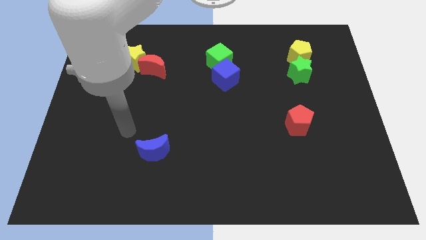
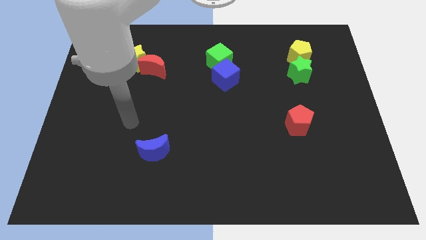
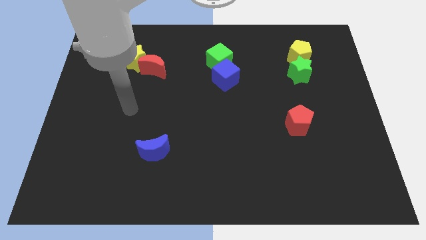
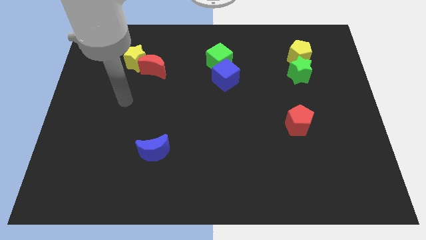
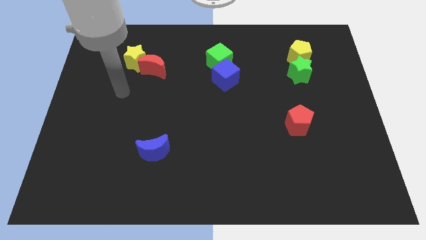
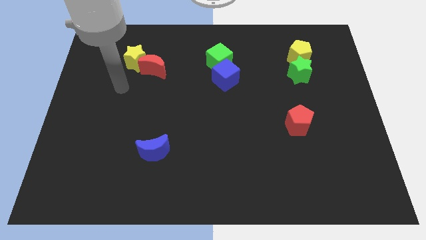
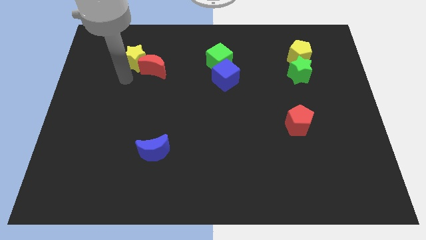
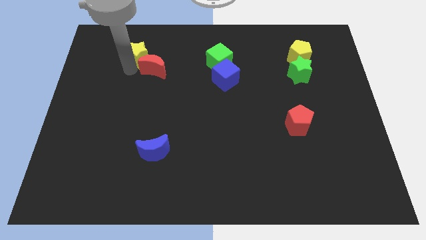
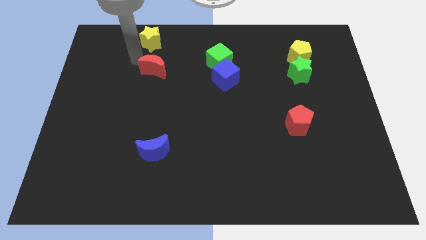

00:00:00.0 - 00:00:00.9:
separate the red moon from the yellow star

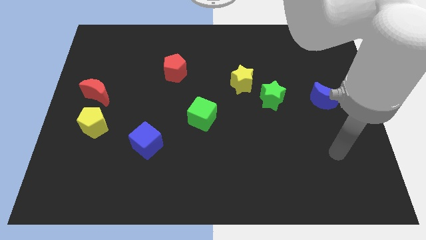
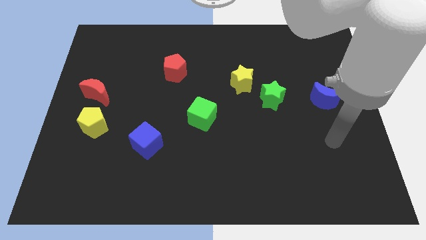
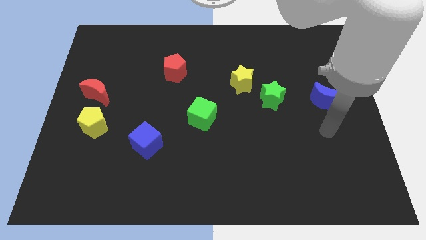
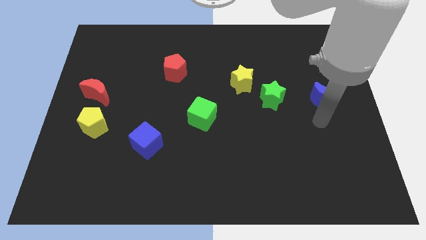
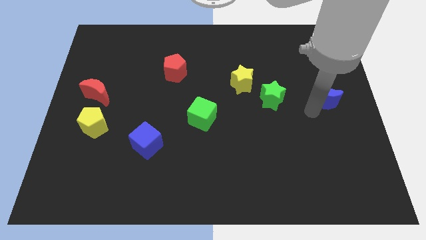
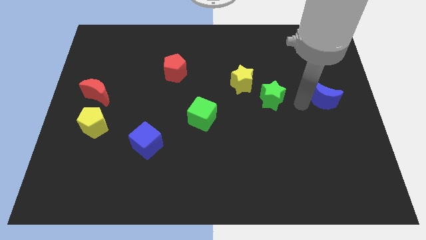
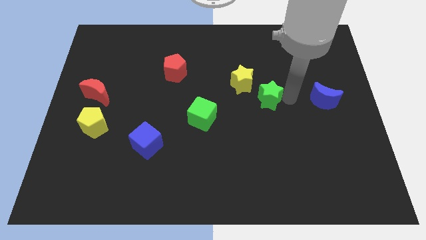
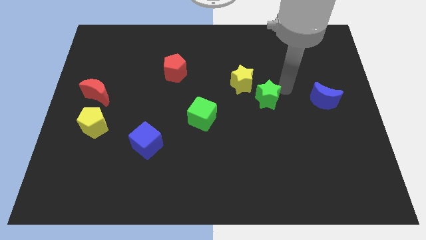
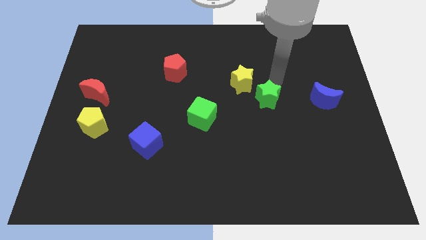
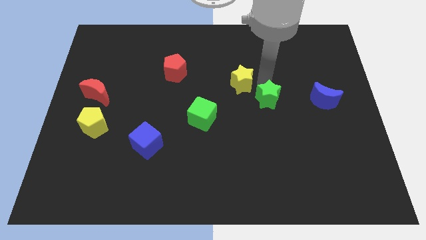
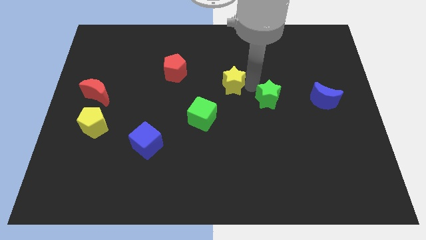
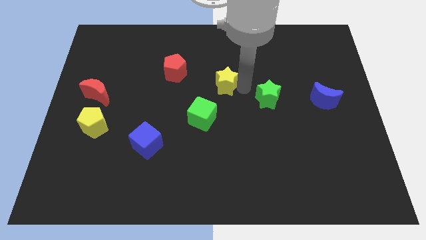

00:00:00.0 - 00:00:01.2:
separate the green star from the yellow star

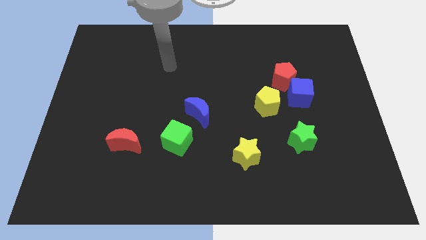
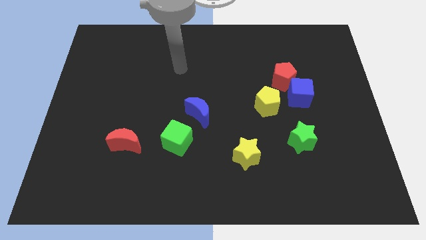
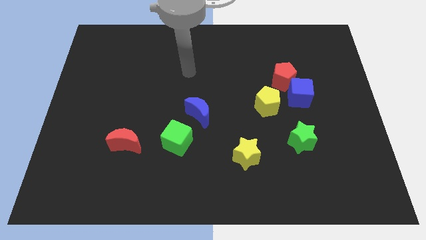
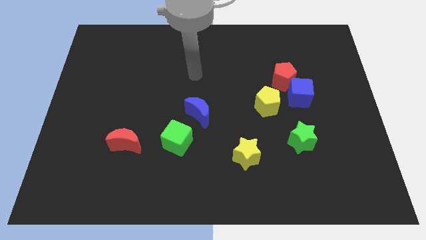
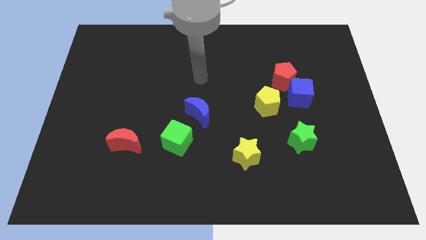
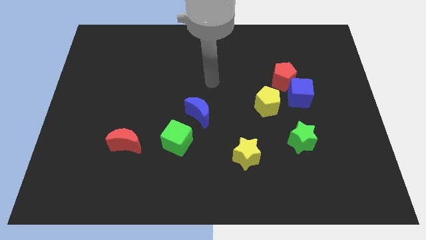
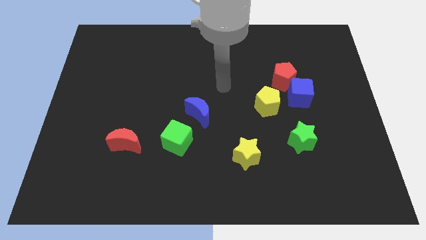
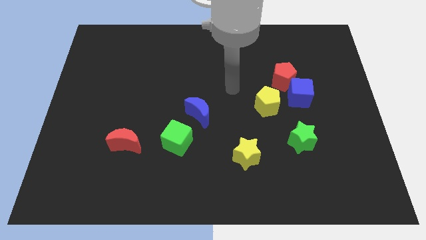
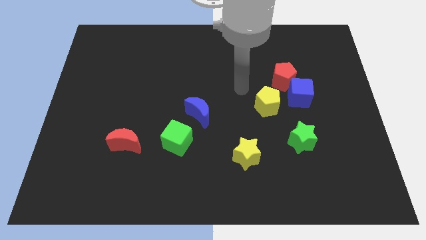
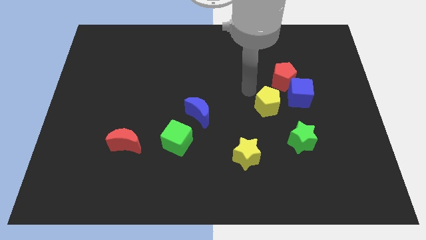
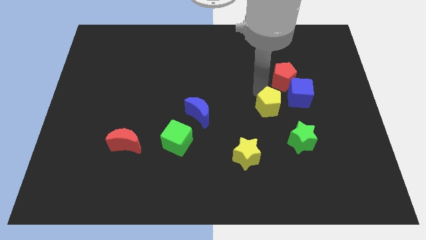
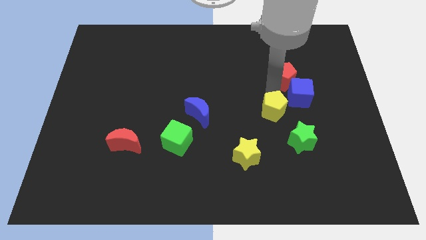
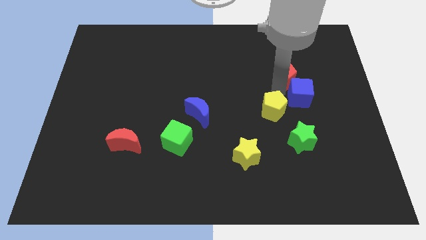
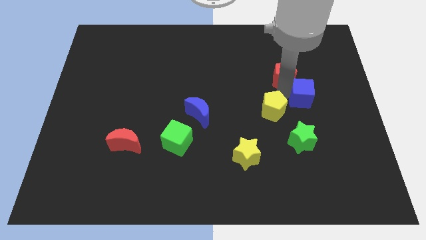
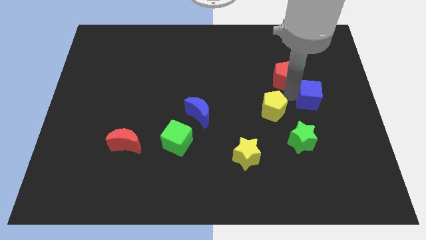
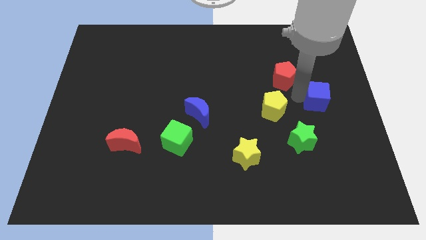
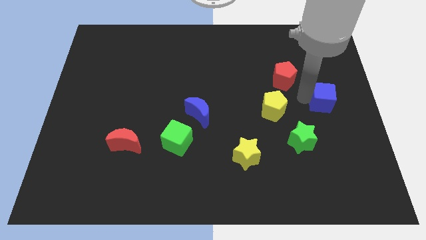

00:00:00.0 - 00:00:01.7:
separate the blue cube from the red pentagon and yellow pentagon

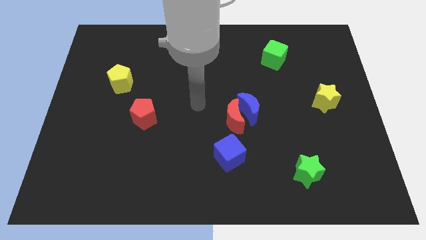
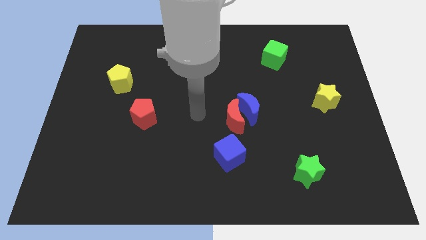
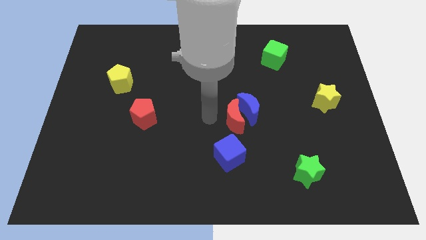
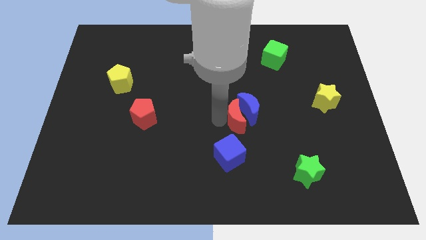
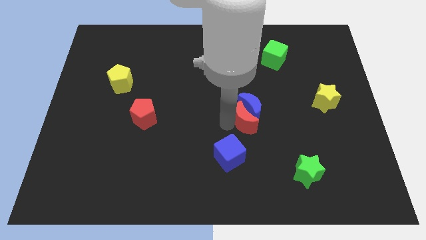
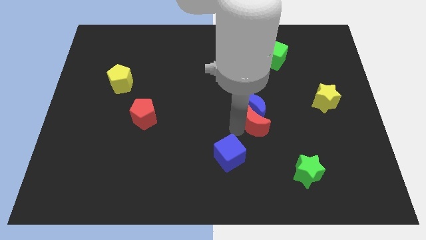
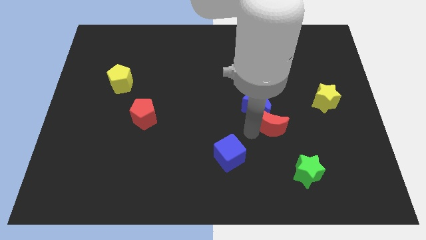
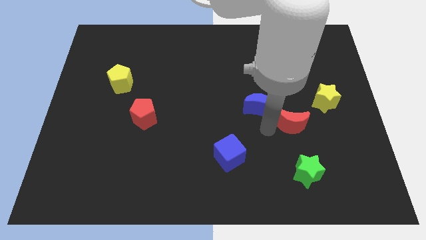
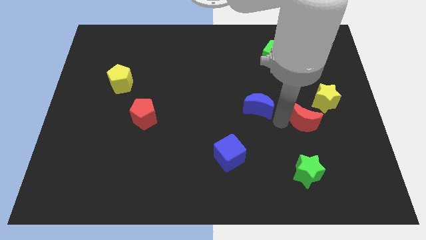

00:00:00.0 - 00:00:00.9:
separate the blue moon from the red moon

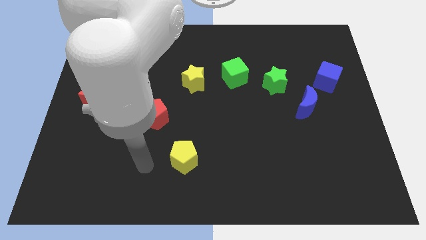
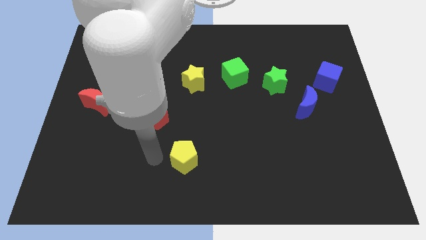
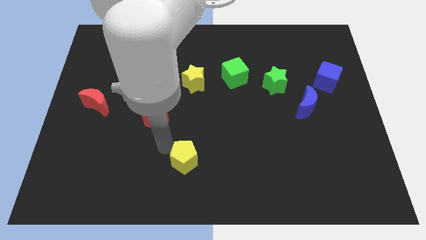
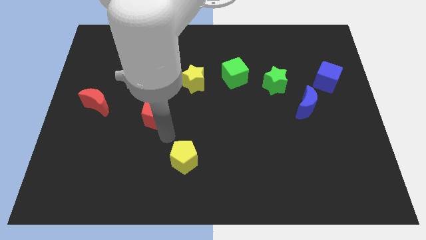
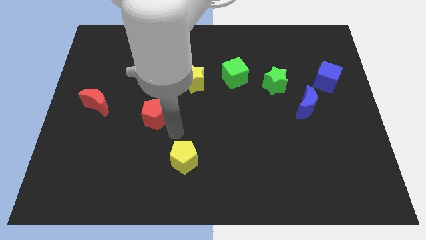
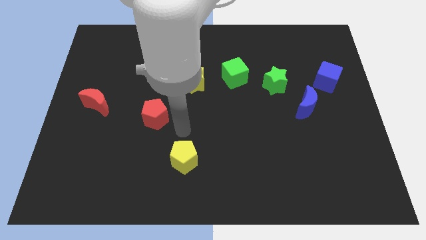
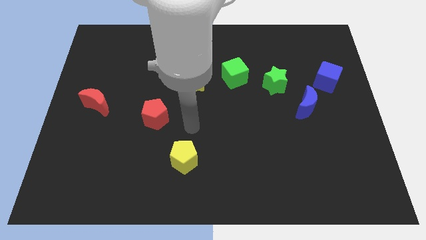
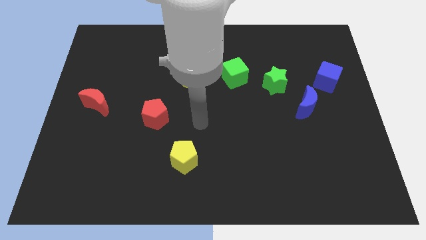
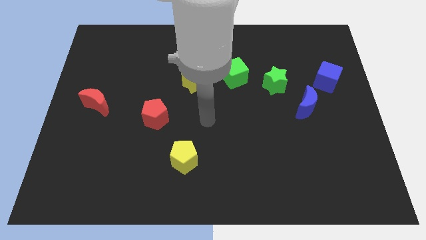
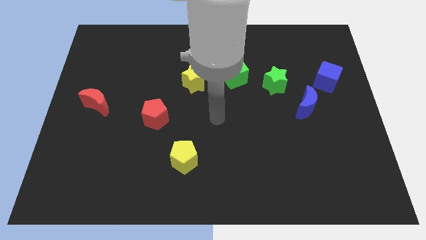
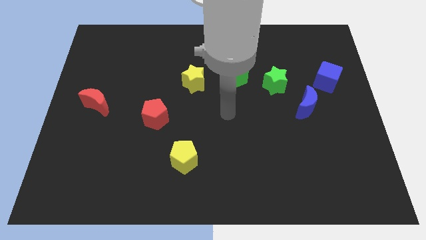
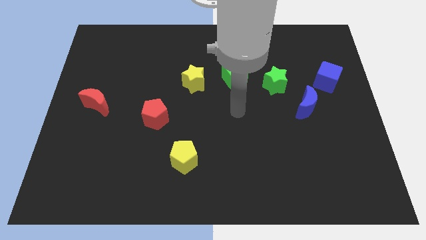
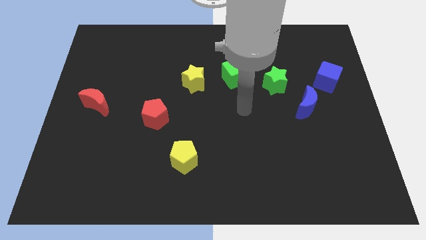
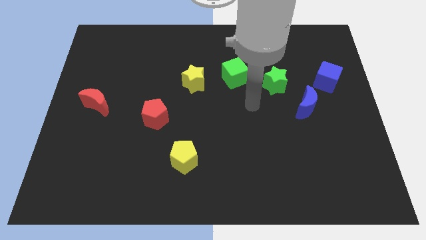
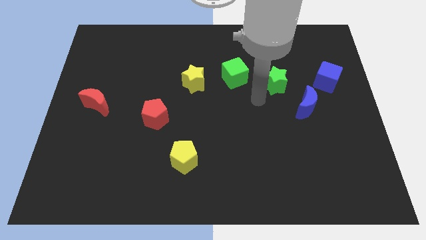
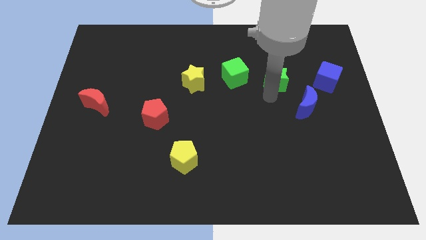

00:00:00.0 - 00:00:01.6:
separate the blue moon from the green star

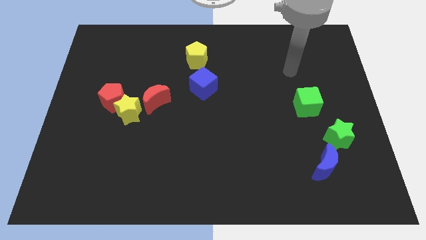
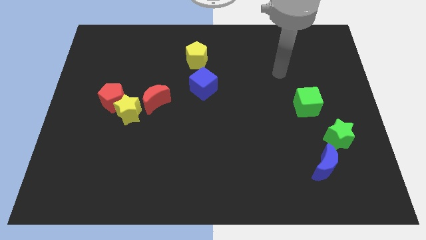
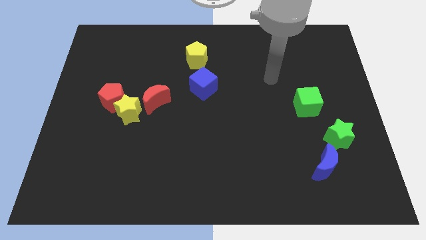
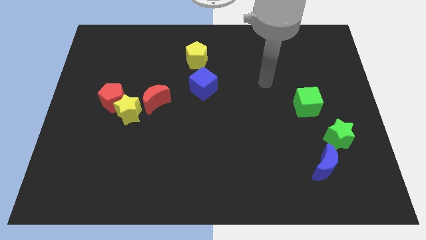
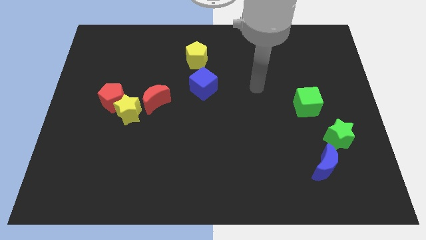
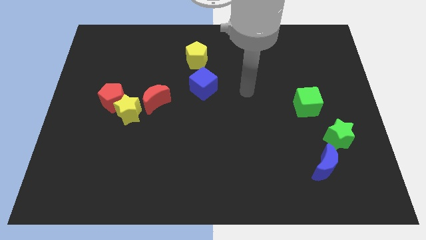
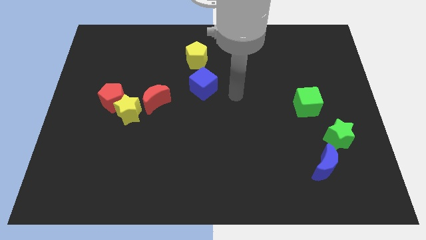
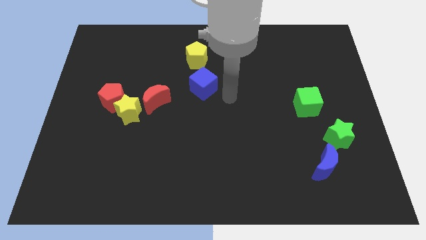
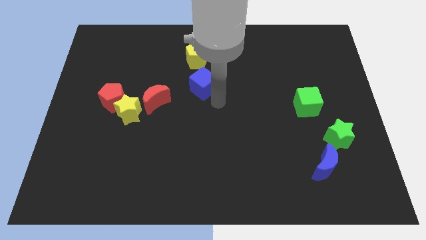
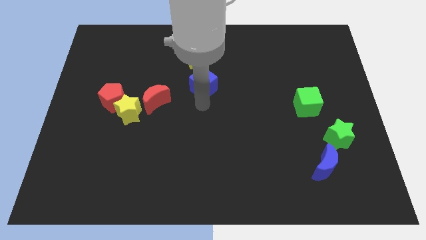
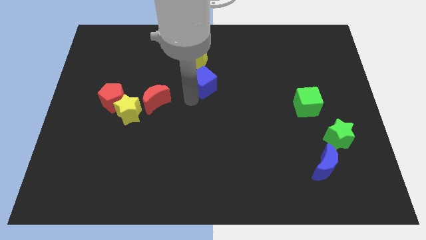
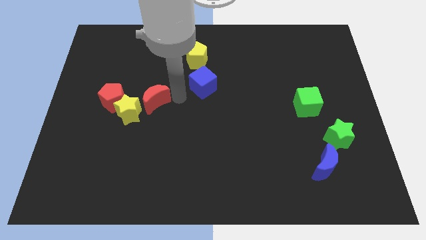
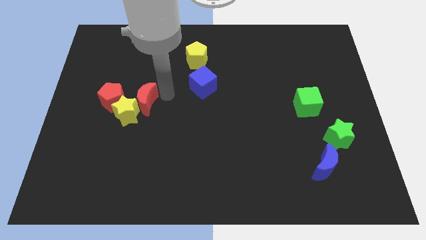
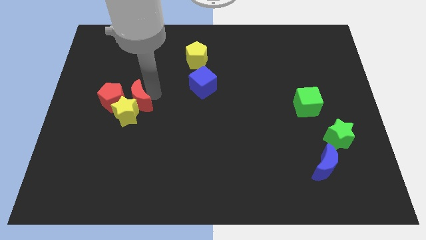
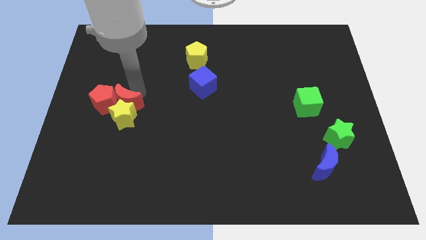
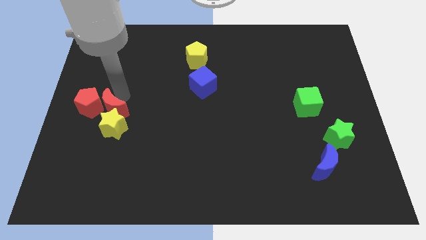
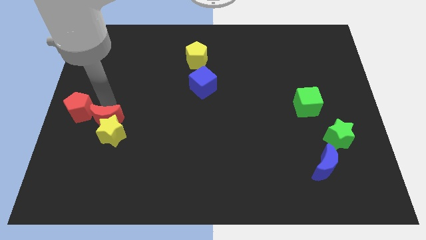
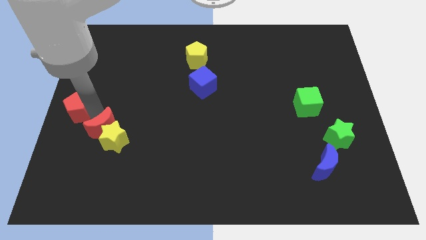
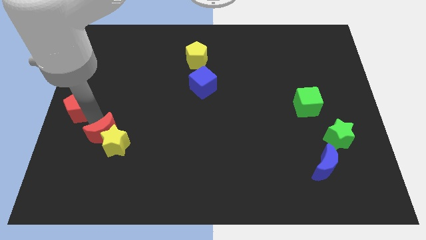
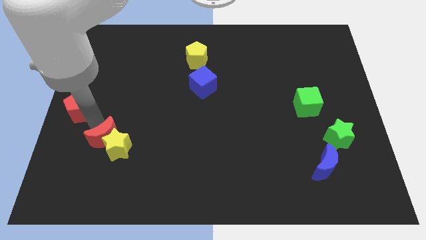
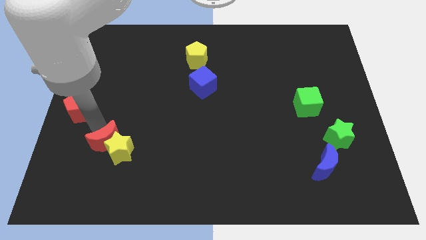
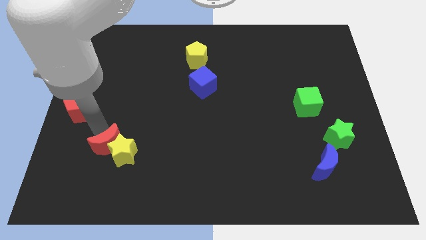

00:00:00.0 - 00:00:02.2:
move the yellow star away from the red pentagon and red moon

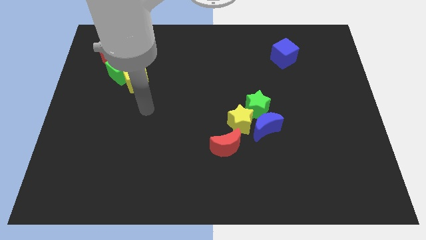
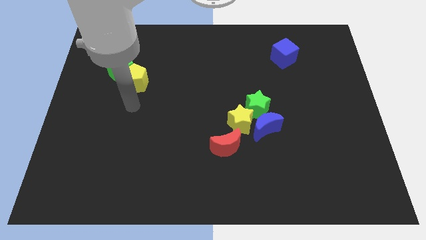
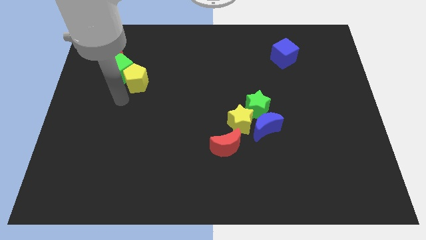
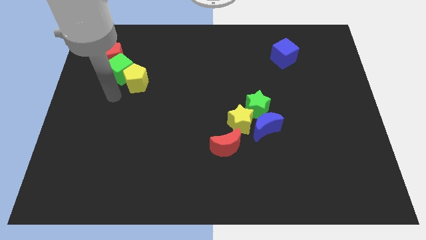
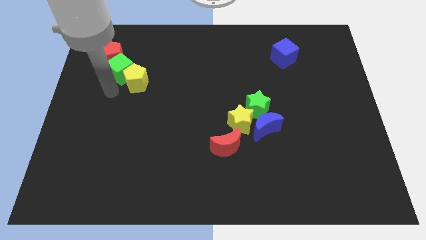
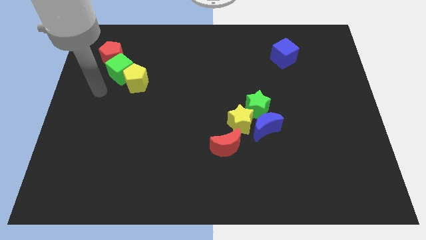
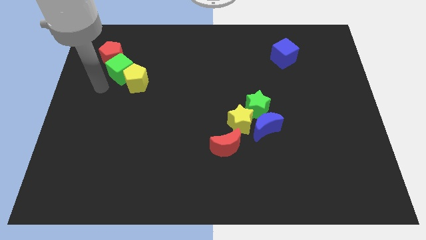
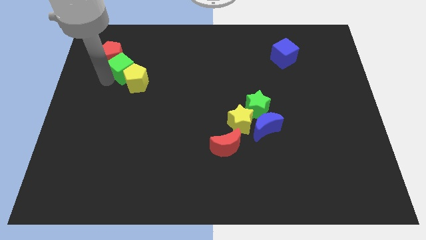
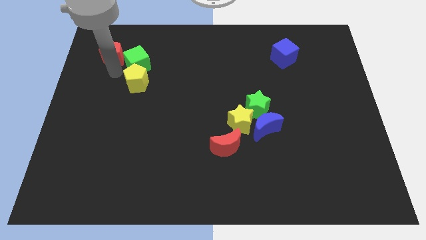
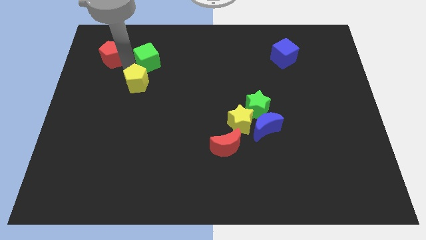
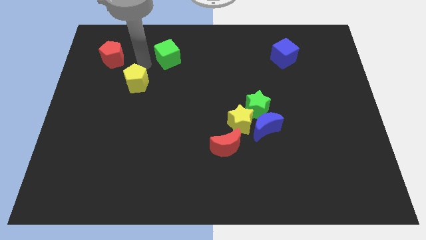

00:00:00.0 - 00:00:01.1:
move the yellow pentagon away from the green cube
